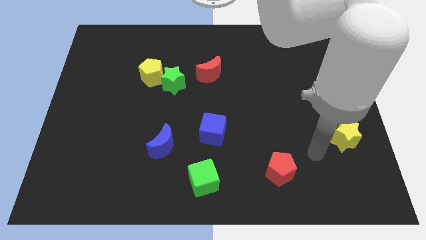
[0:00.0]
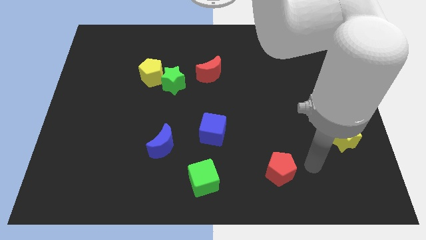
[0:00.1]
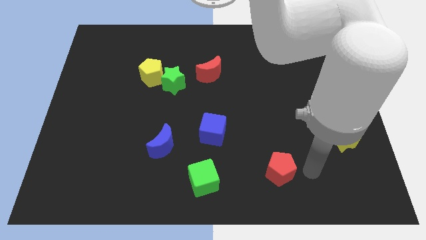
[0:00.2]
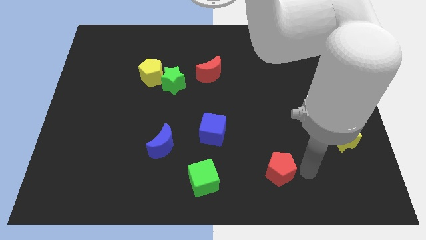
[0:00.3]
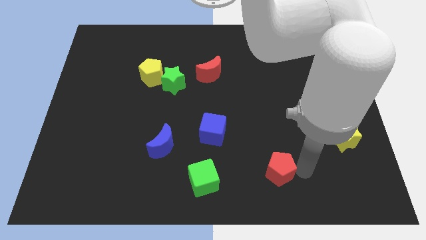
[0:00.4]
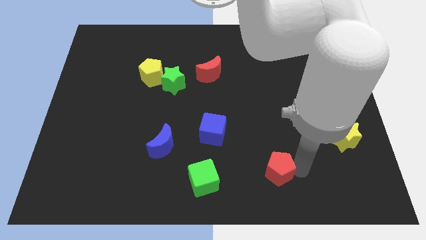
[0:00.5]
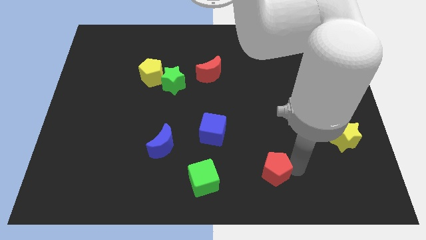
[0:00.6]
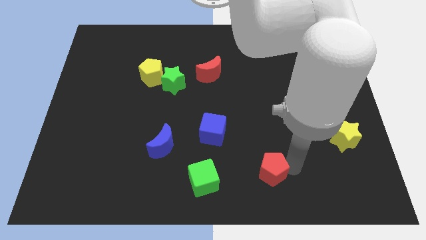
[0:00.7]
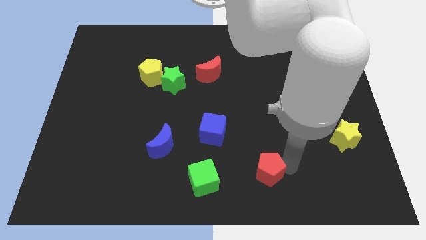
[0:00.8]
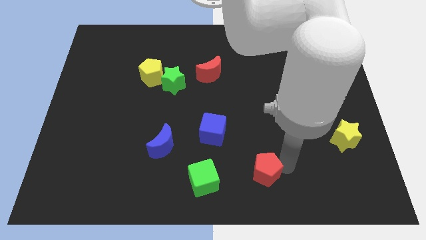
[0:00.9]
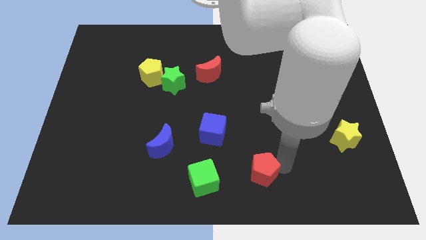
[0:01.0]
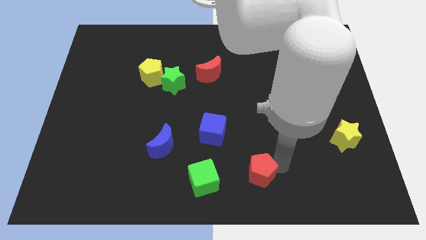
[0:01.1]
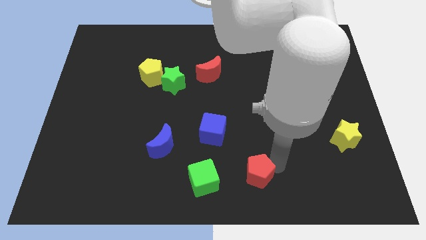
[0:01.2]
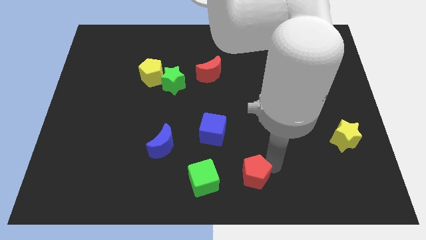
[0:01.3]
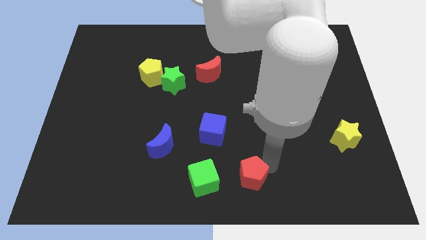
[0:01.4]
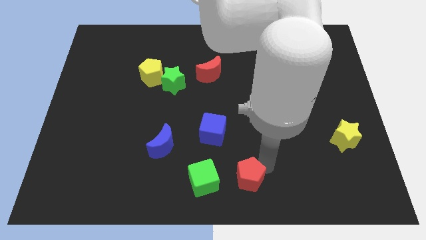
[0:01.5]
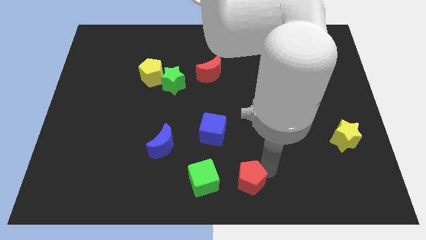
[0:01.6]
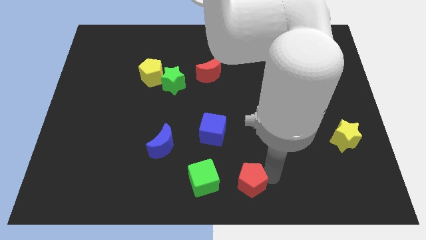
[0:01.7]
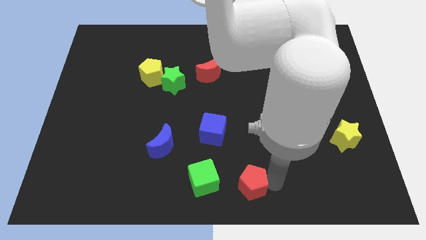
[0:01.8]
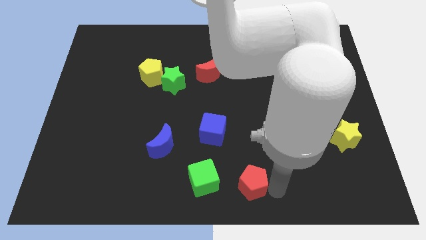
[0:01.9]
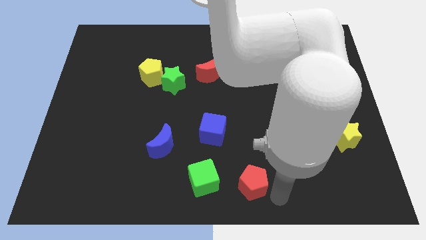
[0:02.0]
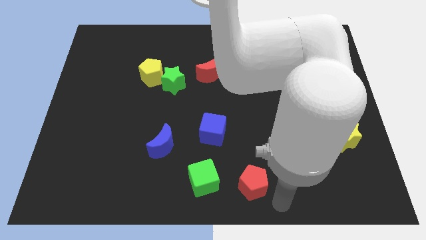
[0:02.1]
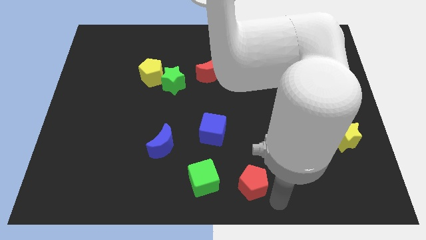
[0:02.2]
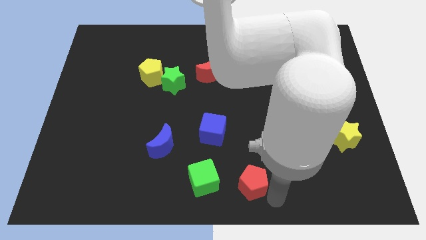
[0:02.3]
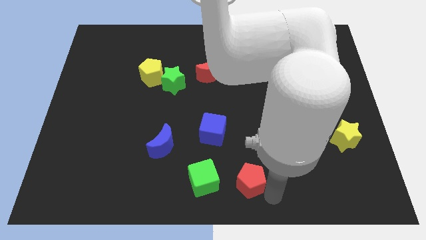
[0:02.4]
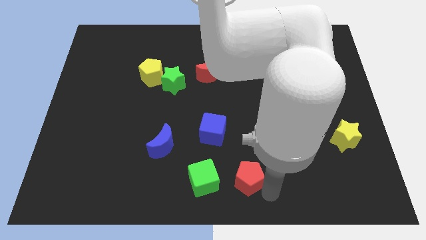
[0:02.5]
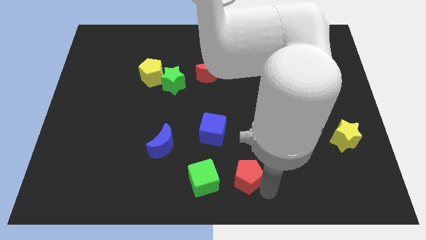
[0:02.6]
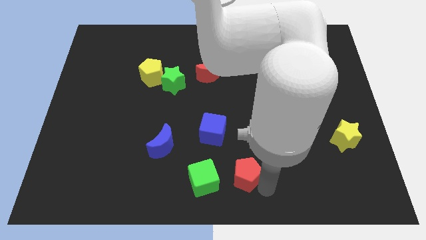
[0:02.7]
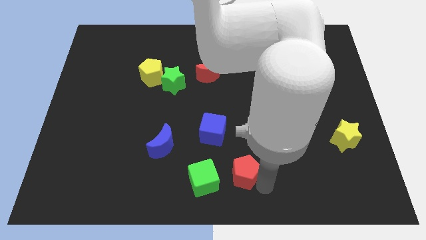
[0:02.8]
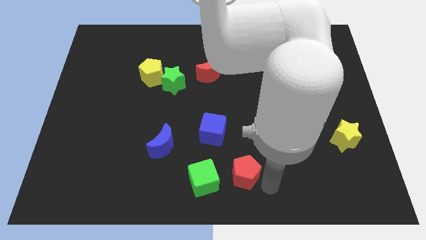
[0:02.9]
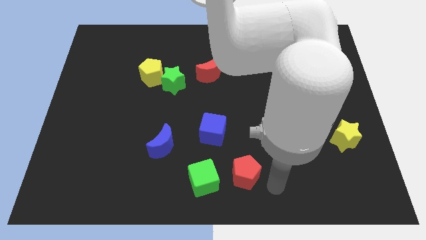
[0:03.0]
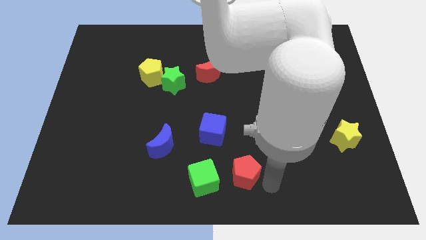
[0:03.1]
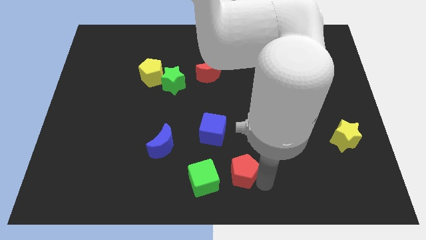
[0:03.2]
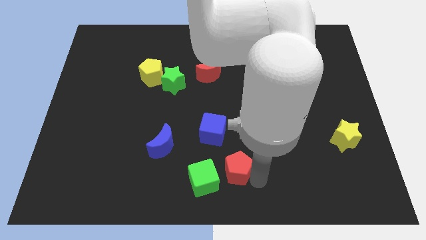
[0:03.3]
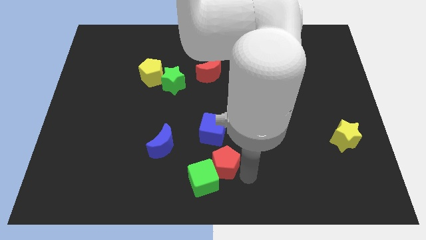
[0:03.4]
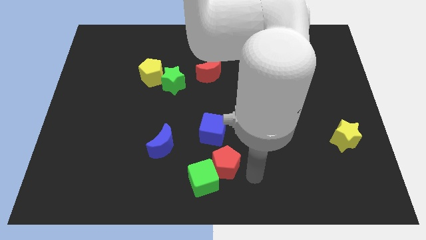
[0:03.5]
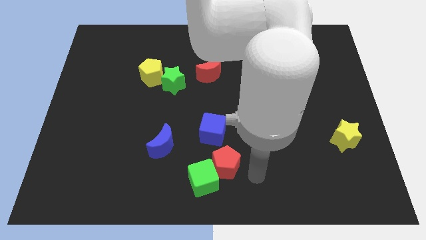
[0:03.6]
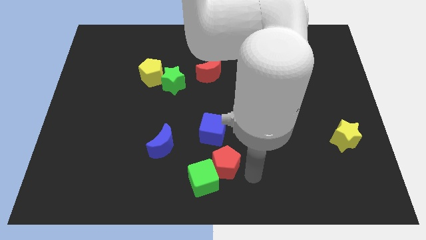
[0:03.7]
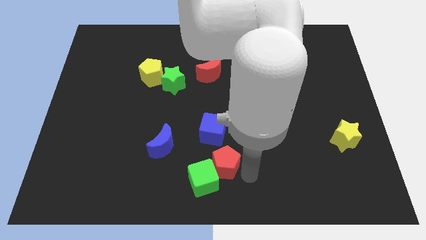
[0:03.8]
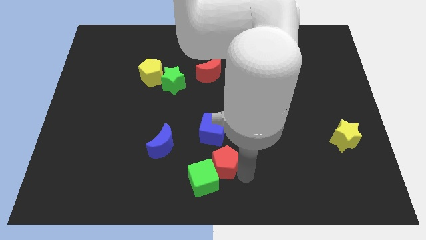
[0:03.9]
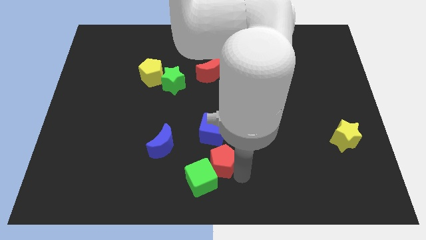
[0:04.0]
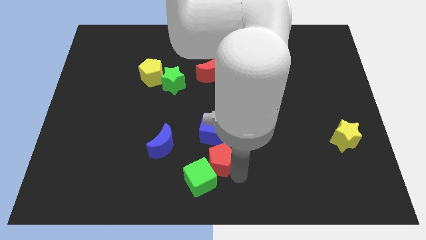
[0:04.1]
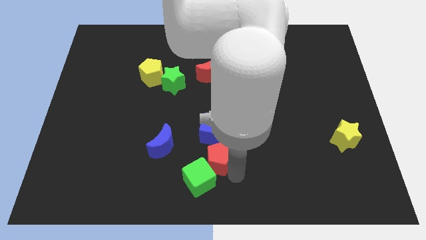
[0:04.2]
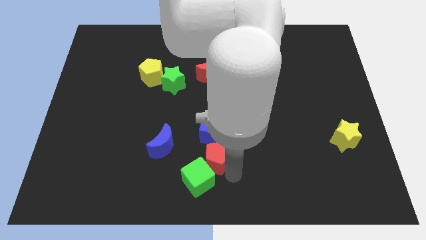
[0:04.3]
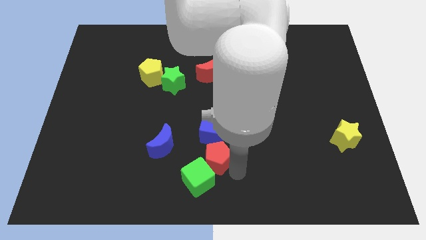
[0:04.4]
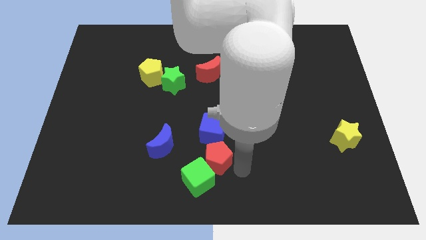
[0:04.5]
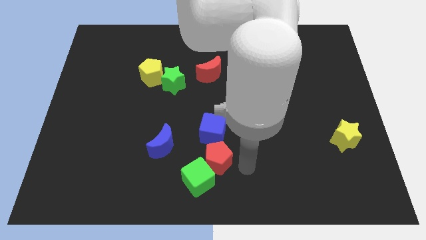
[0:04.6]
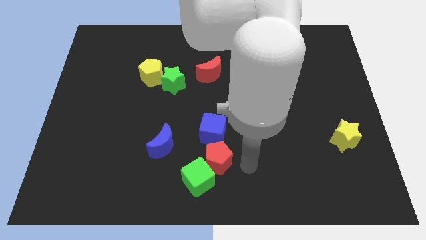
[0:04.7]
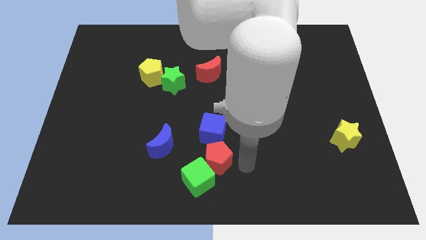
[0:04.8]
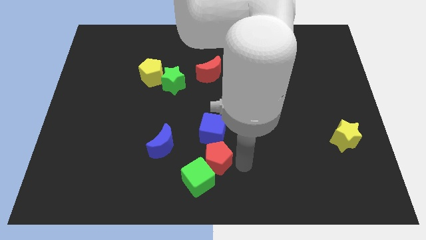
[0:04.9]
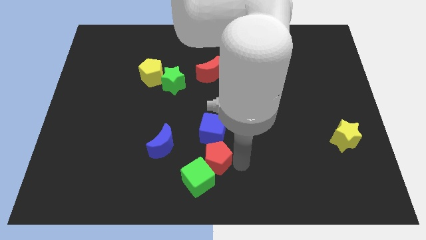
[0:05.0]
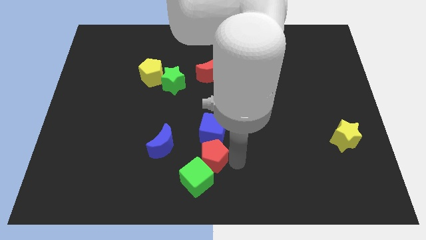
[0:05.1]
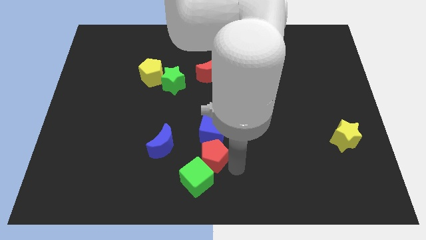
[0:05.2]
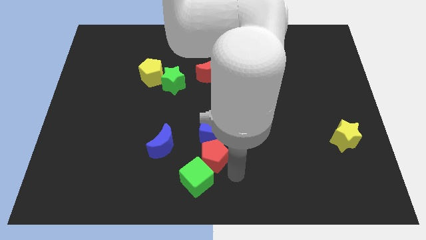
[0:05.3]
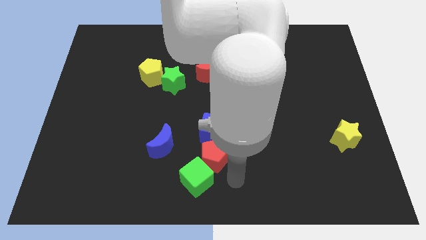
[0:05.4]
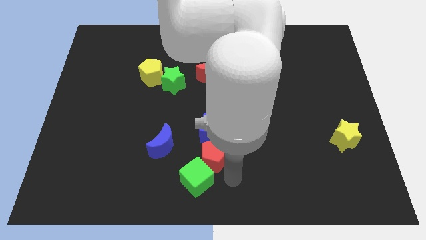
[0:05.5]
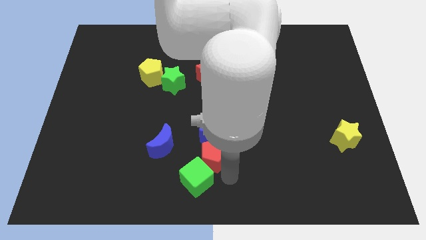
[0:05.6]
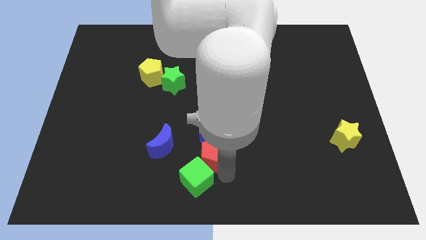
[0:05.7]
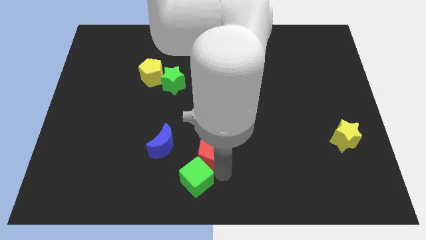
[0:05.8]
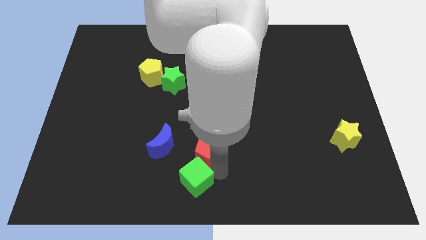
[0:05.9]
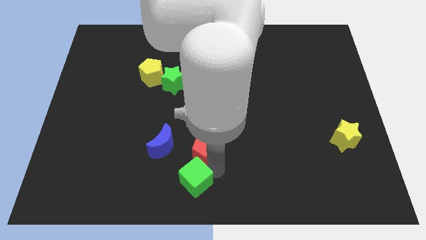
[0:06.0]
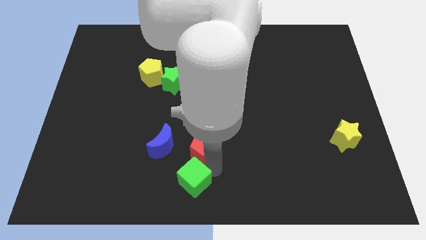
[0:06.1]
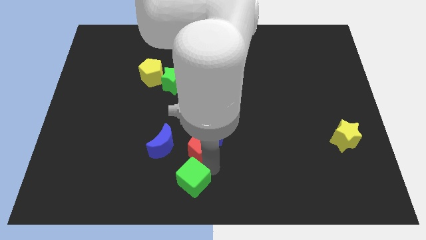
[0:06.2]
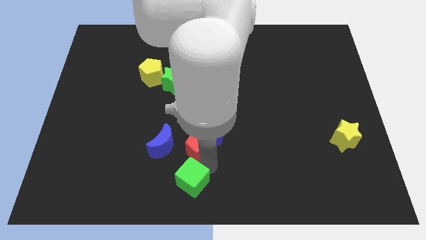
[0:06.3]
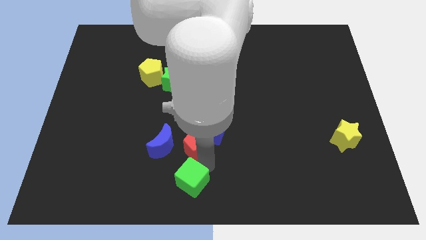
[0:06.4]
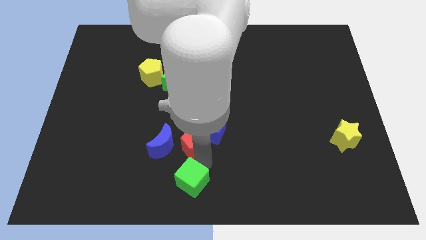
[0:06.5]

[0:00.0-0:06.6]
move the red pentagon to the top right side of the blue moon

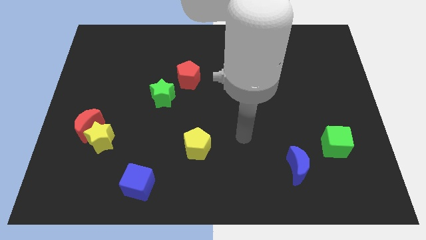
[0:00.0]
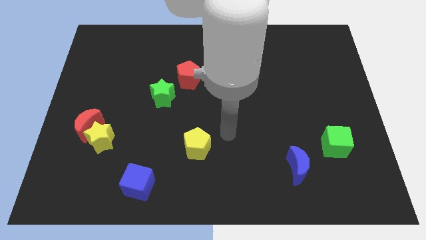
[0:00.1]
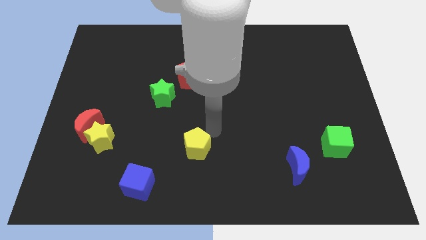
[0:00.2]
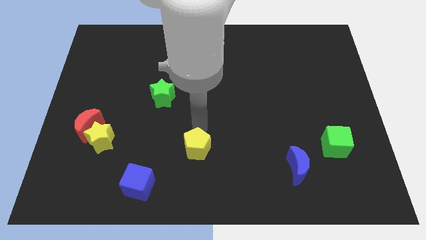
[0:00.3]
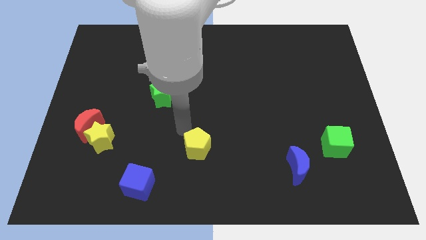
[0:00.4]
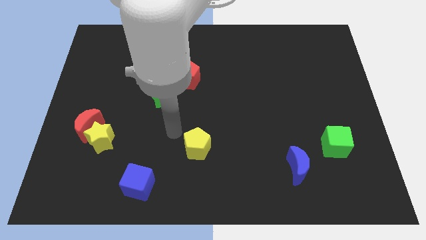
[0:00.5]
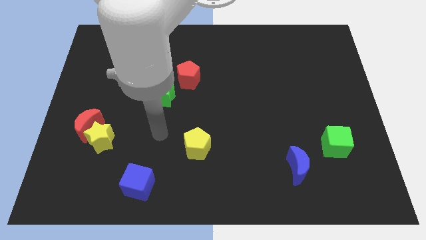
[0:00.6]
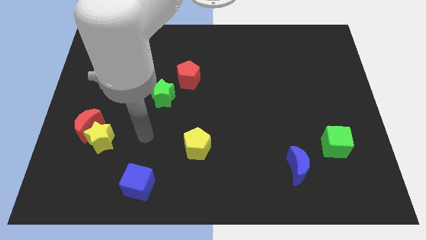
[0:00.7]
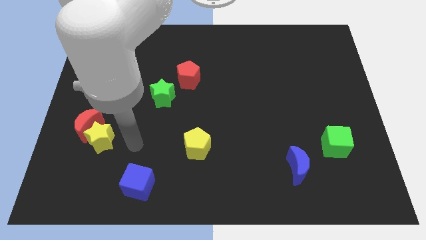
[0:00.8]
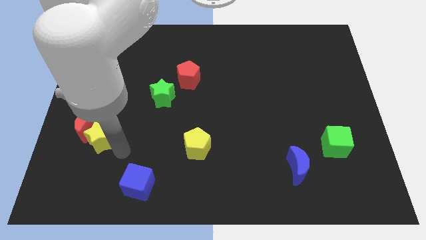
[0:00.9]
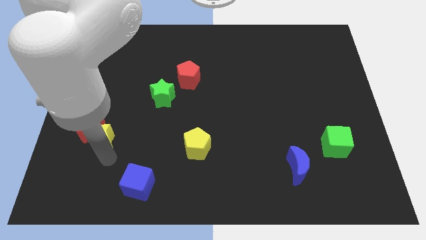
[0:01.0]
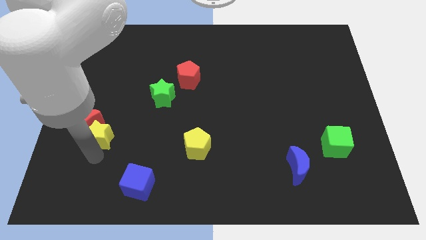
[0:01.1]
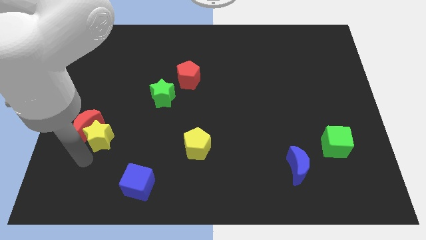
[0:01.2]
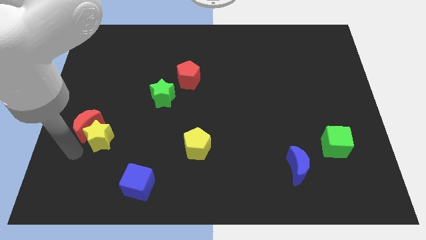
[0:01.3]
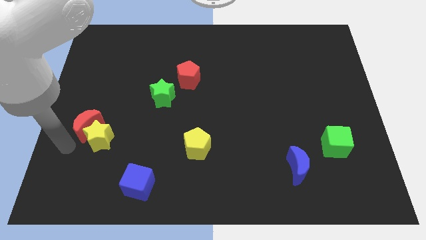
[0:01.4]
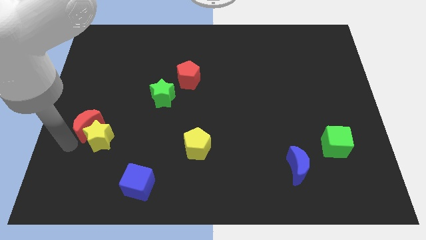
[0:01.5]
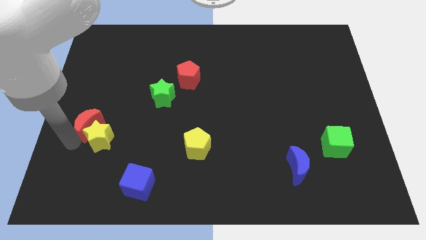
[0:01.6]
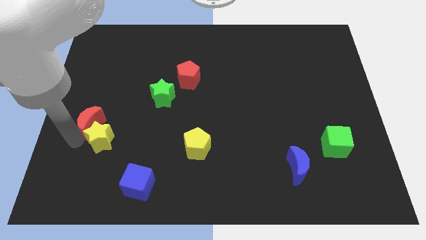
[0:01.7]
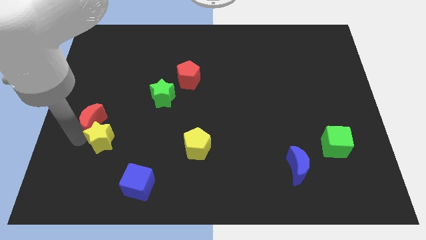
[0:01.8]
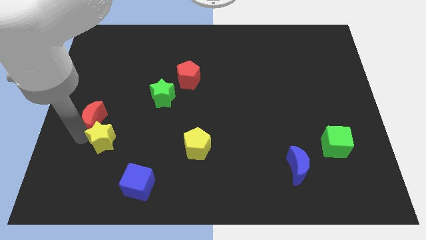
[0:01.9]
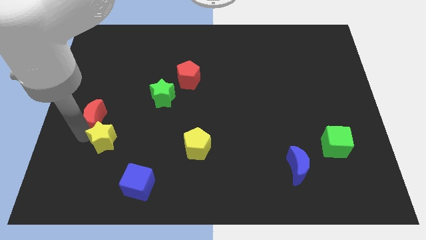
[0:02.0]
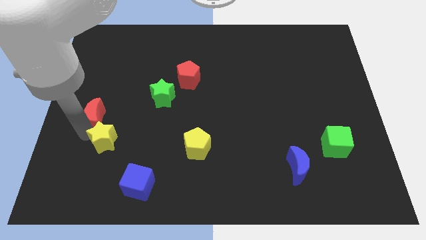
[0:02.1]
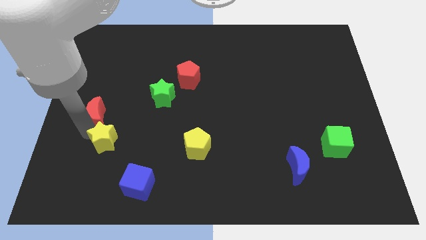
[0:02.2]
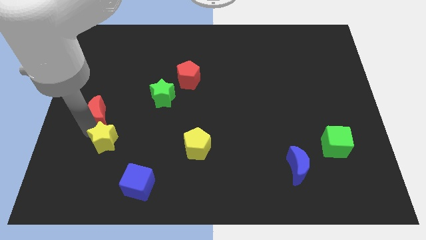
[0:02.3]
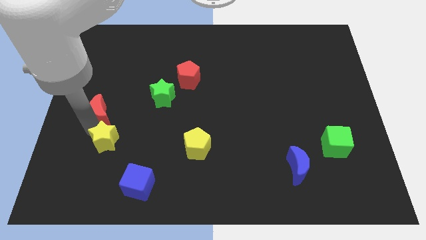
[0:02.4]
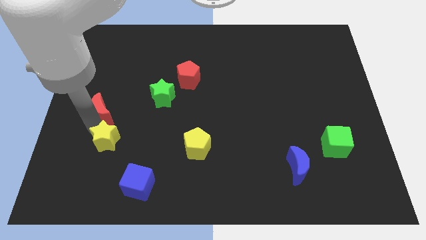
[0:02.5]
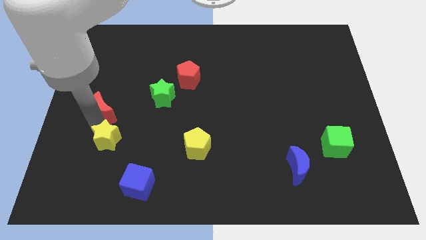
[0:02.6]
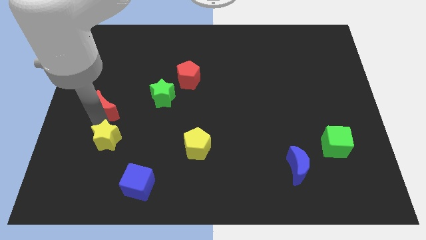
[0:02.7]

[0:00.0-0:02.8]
put the red moon to the left side of the green star
